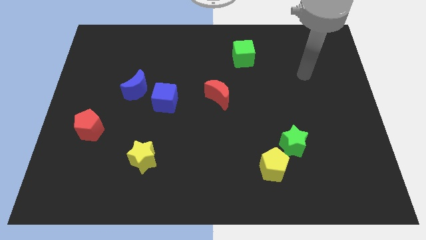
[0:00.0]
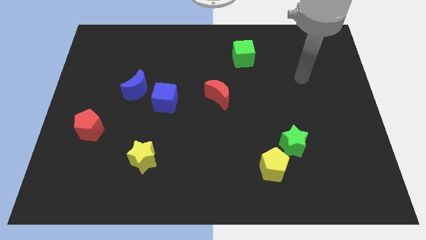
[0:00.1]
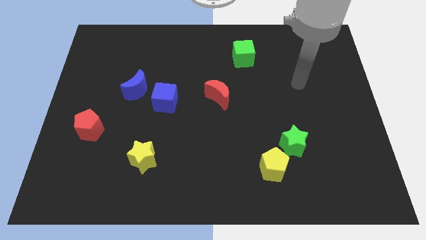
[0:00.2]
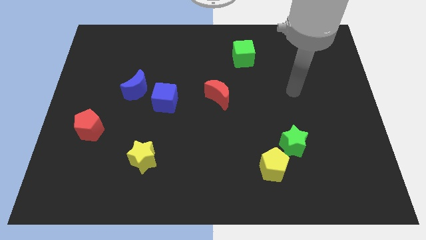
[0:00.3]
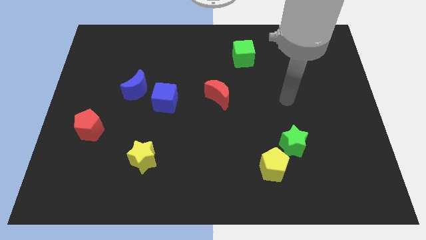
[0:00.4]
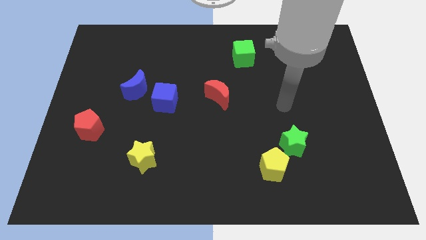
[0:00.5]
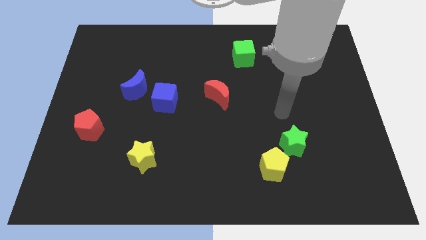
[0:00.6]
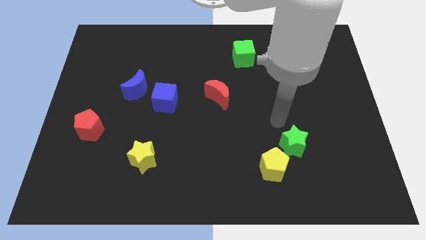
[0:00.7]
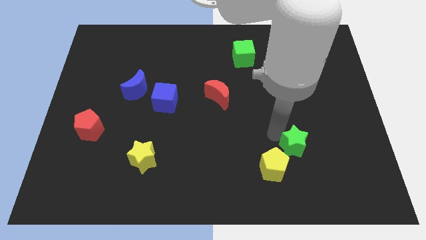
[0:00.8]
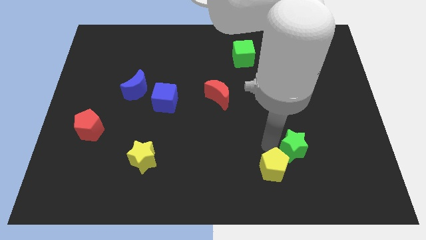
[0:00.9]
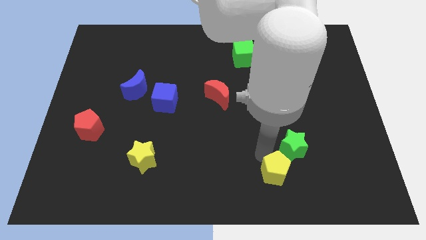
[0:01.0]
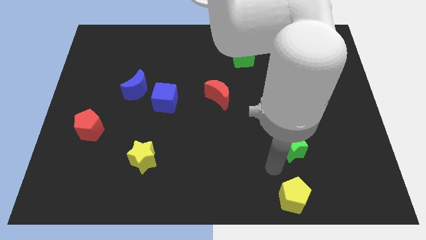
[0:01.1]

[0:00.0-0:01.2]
move the green star away from the yellow pentagon

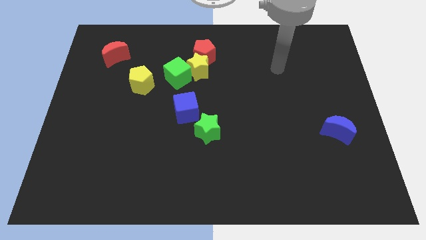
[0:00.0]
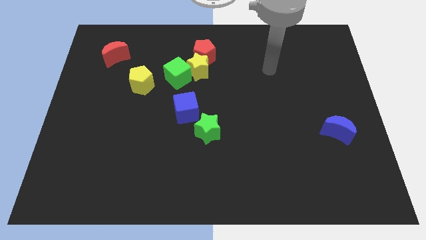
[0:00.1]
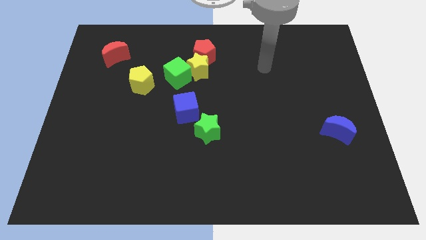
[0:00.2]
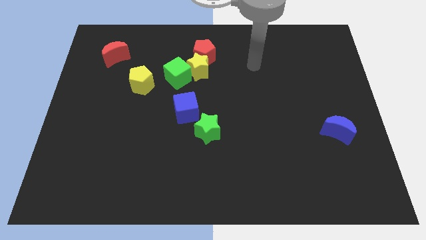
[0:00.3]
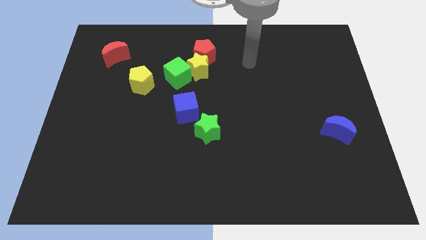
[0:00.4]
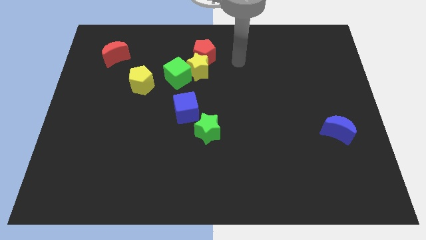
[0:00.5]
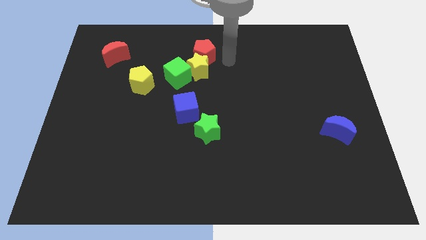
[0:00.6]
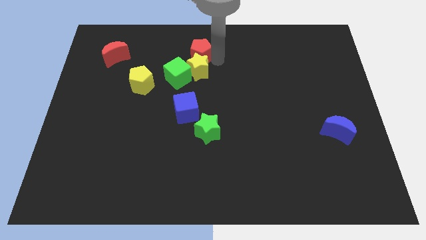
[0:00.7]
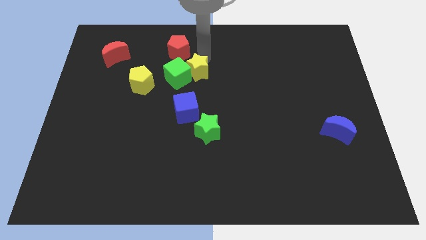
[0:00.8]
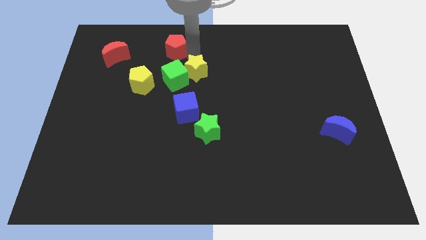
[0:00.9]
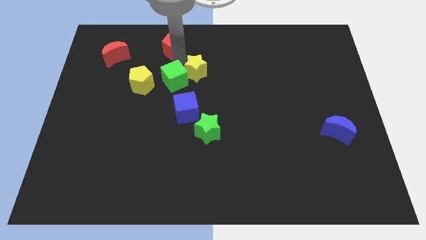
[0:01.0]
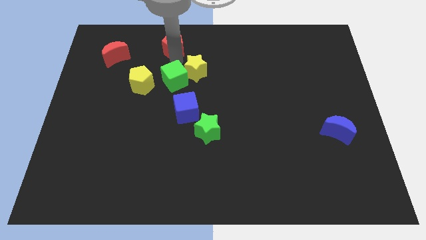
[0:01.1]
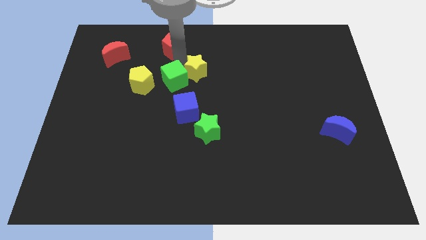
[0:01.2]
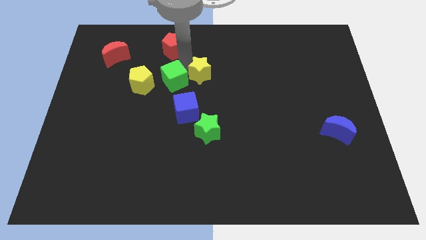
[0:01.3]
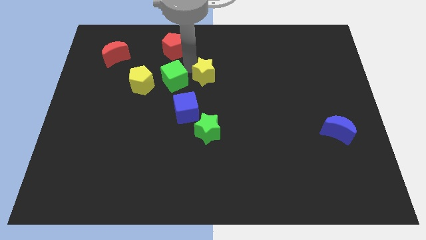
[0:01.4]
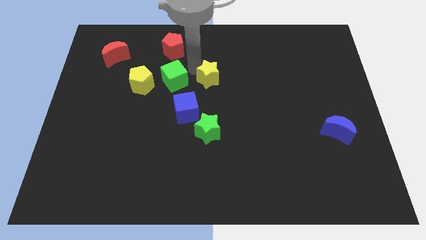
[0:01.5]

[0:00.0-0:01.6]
pull the yellow star apart from the red pentagon and green cube

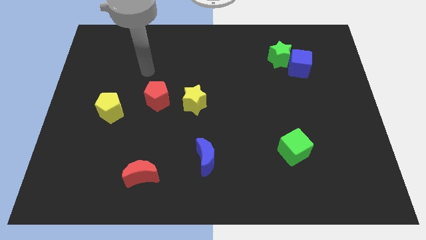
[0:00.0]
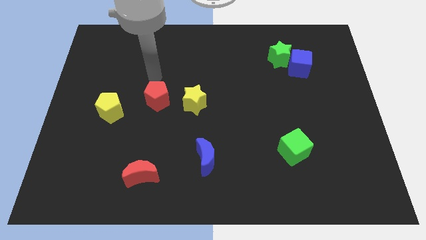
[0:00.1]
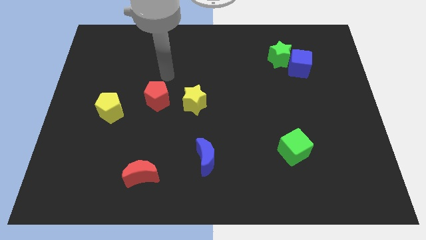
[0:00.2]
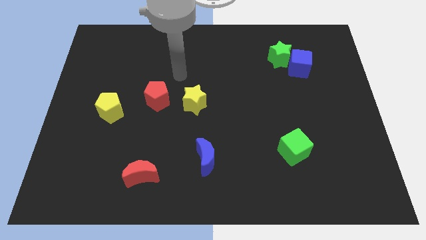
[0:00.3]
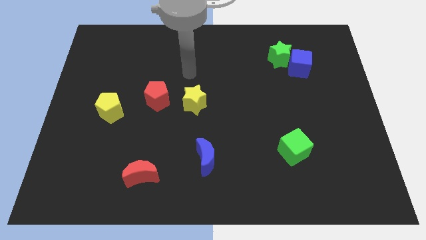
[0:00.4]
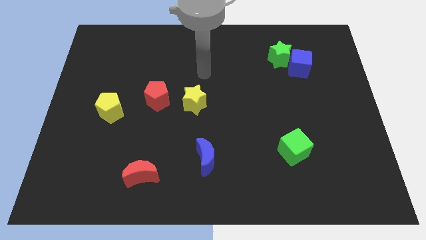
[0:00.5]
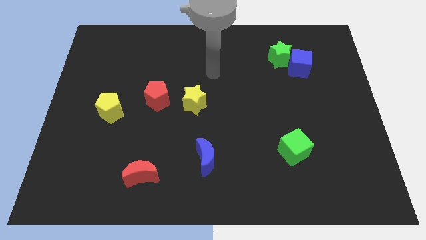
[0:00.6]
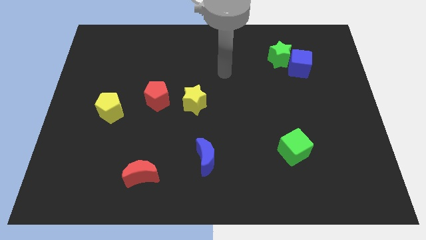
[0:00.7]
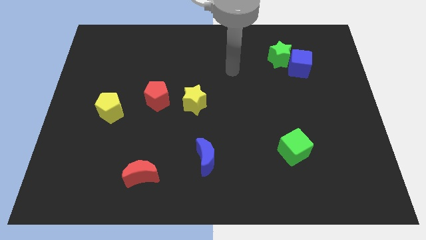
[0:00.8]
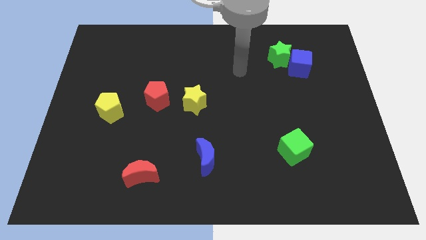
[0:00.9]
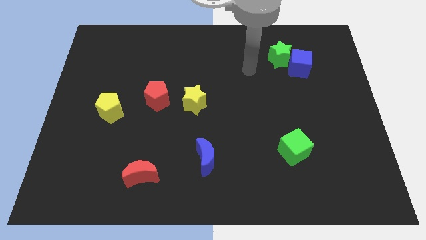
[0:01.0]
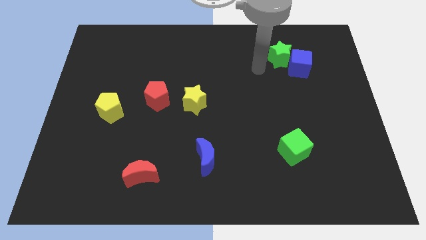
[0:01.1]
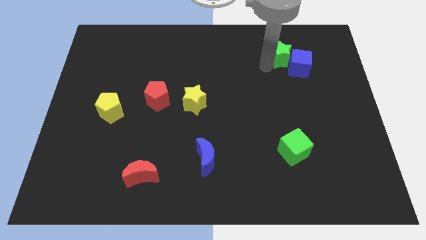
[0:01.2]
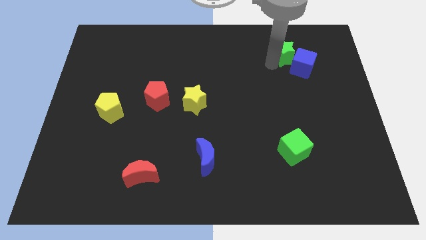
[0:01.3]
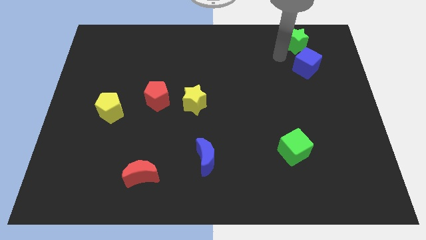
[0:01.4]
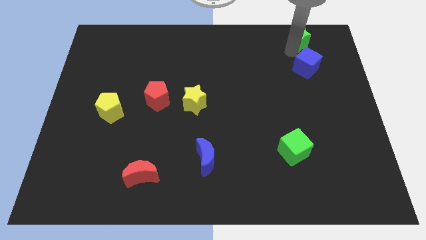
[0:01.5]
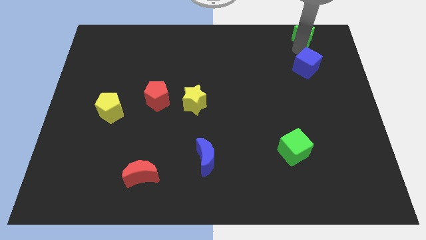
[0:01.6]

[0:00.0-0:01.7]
move the blue cube away from the green star

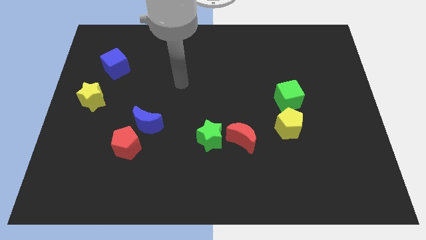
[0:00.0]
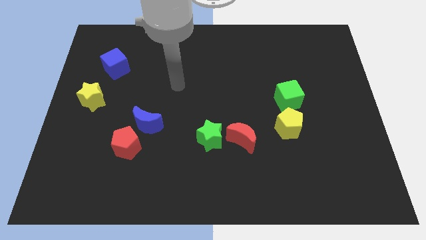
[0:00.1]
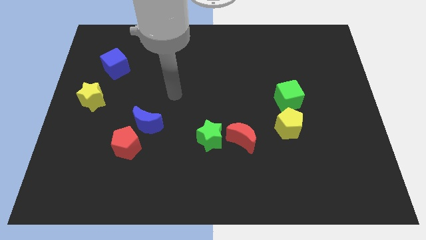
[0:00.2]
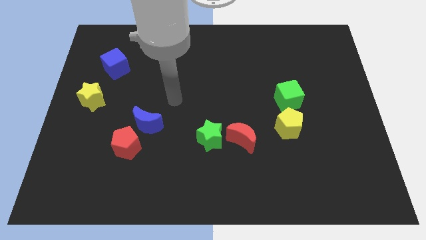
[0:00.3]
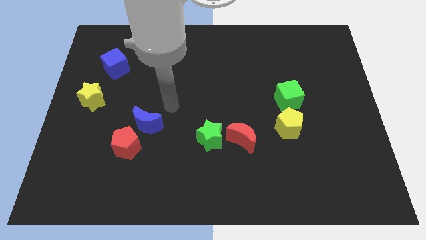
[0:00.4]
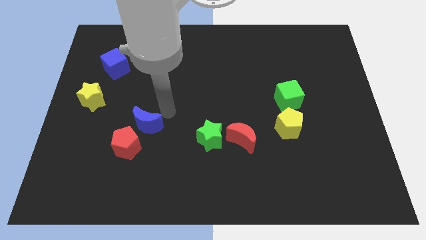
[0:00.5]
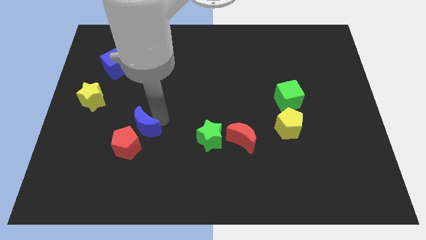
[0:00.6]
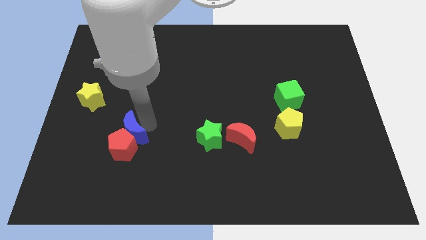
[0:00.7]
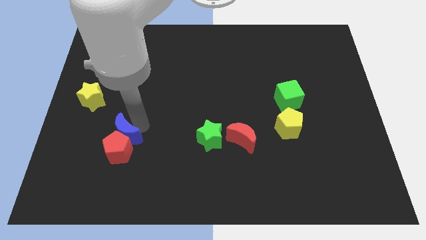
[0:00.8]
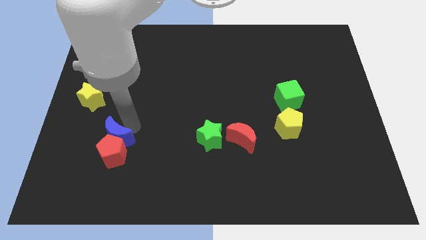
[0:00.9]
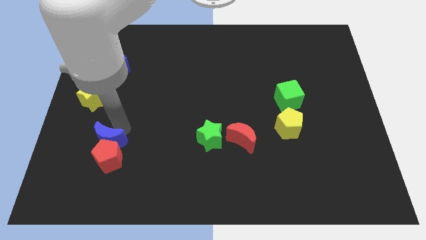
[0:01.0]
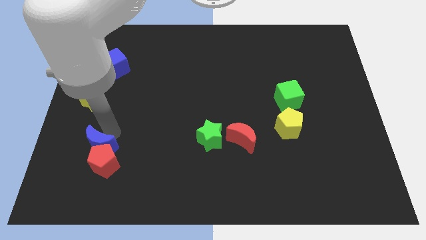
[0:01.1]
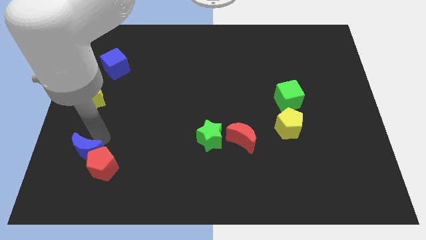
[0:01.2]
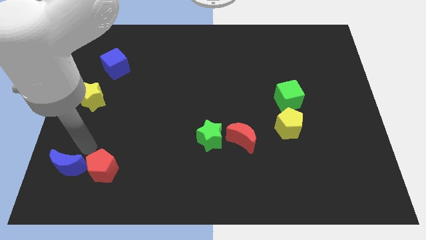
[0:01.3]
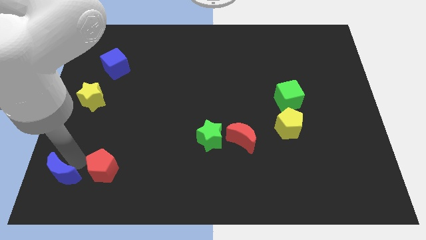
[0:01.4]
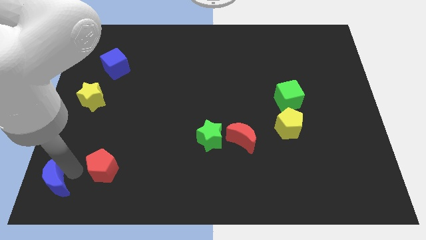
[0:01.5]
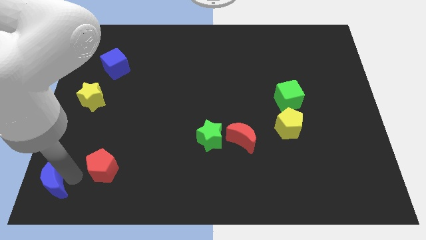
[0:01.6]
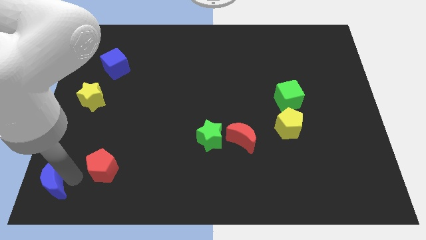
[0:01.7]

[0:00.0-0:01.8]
move the red pentagon away from the blue moon

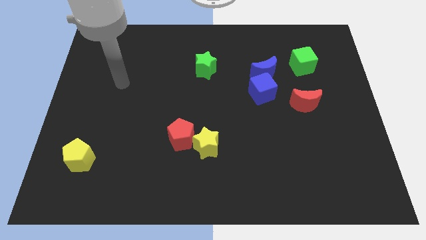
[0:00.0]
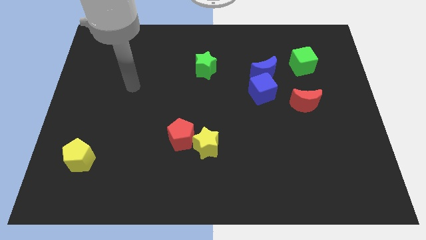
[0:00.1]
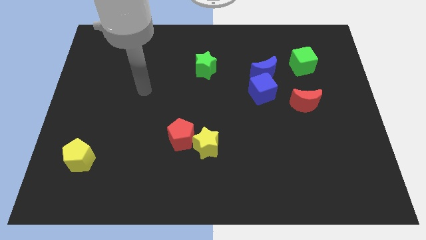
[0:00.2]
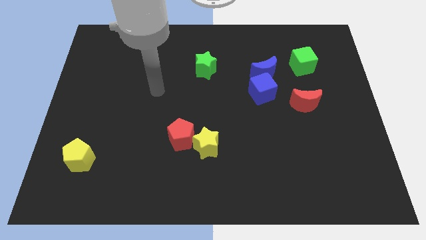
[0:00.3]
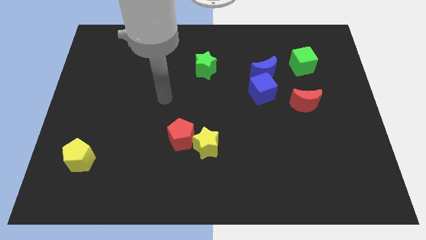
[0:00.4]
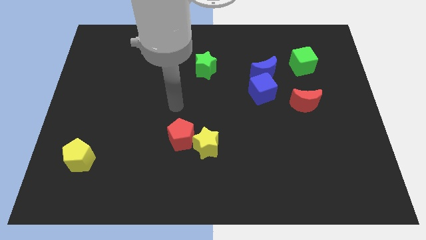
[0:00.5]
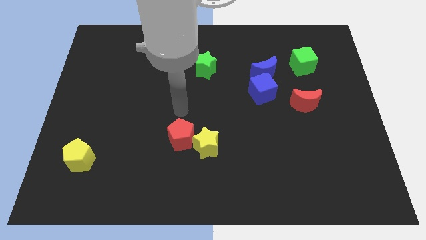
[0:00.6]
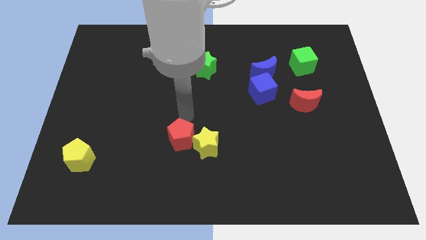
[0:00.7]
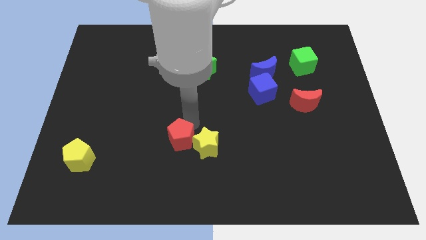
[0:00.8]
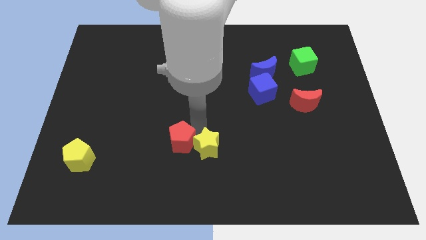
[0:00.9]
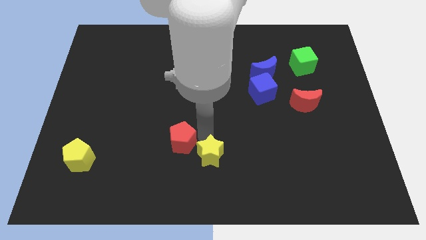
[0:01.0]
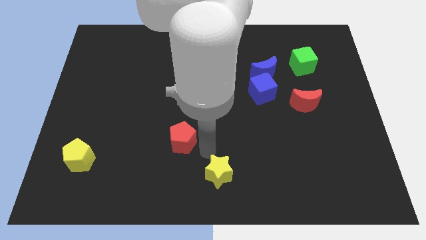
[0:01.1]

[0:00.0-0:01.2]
pull the red pentagon apart from the yellow star

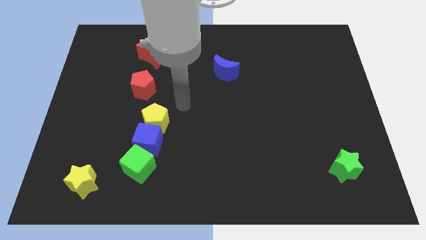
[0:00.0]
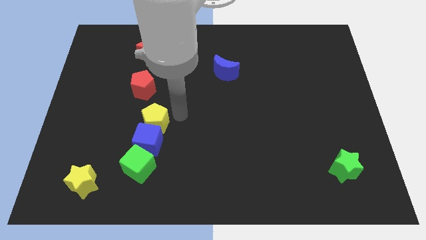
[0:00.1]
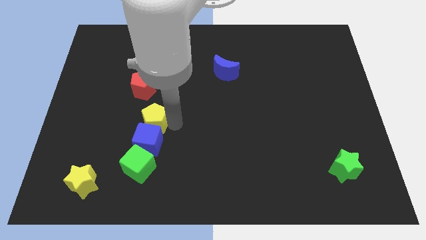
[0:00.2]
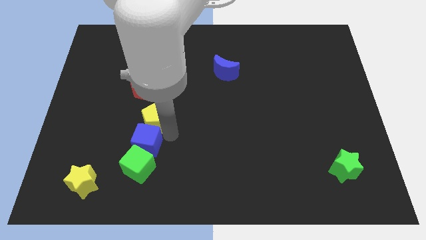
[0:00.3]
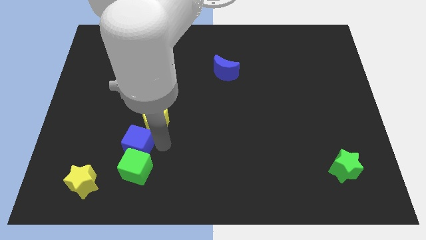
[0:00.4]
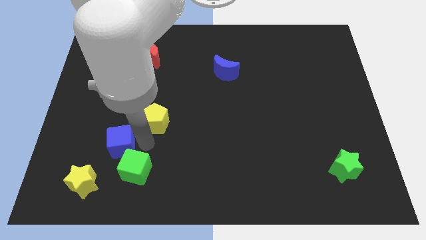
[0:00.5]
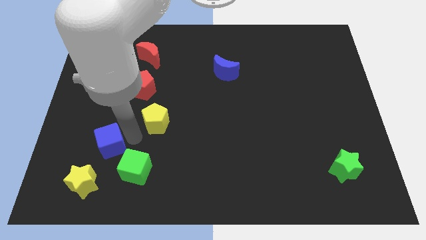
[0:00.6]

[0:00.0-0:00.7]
pull the yellow pentagon apart from the blue cube

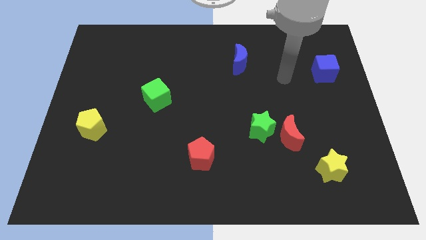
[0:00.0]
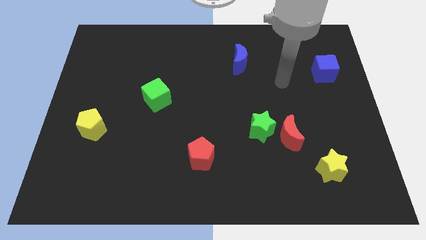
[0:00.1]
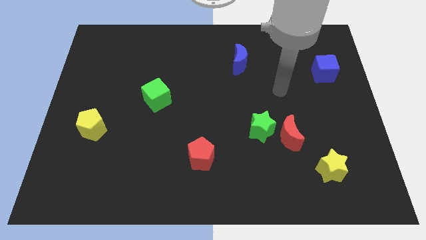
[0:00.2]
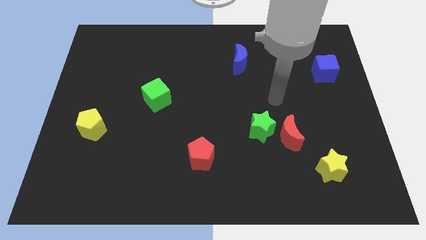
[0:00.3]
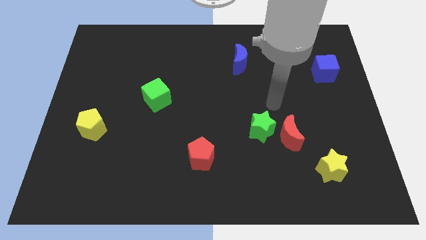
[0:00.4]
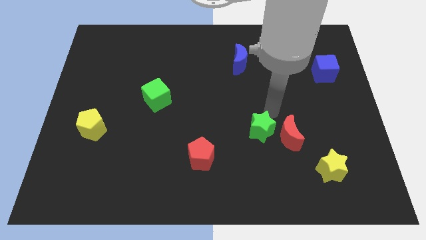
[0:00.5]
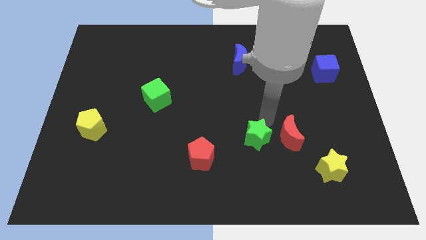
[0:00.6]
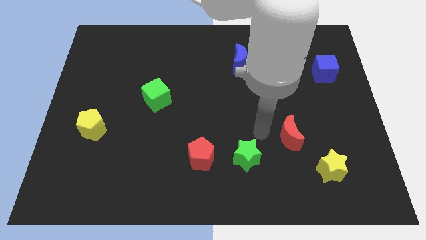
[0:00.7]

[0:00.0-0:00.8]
separate the red moon from the green star

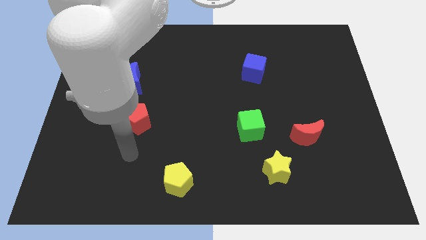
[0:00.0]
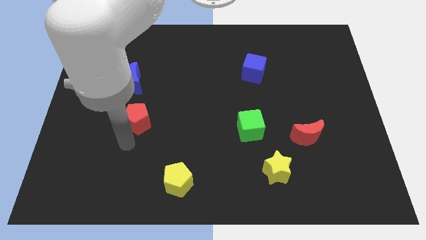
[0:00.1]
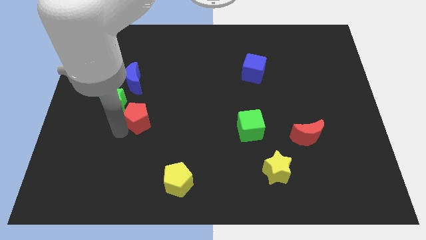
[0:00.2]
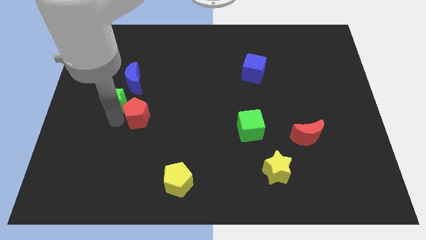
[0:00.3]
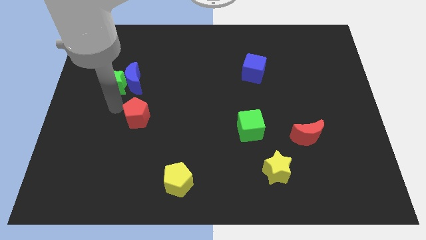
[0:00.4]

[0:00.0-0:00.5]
pull the red pentagon apart from the green star
